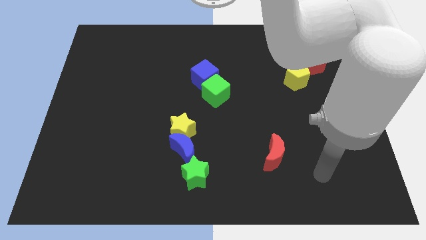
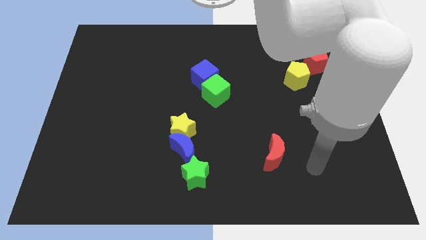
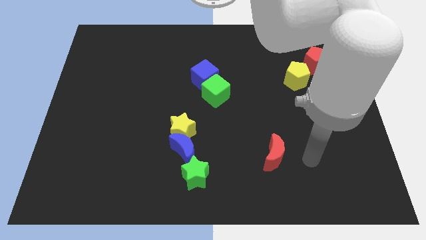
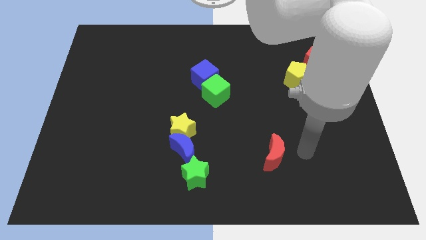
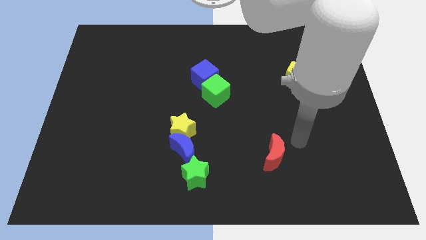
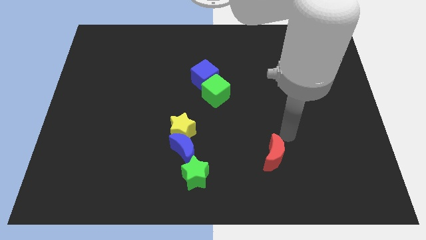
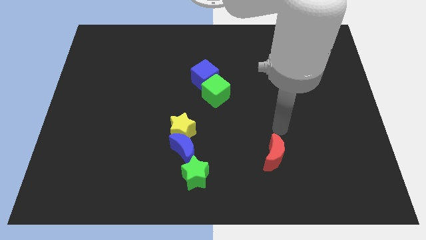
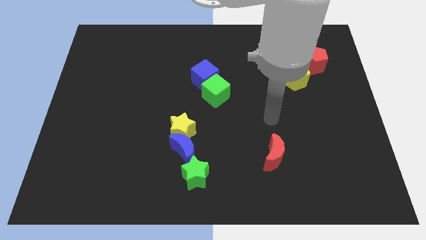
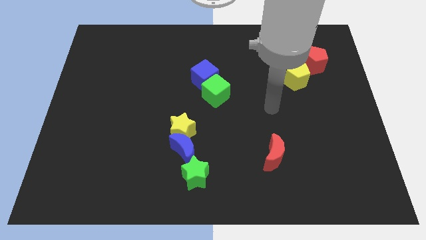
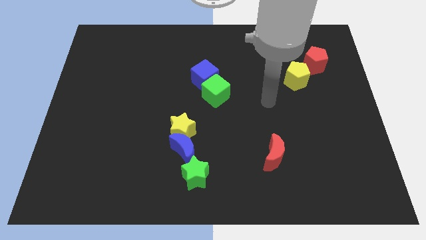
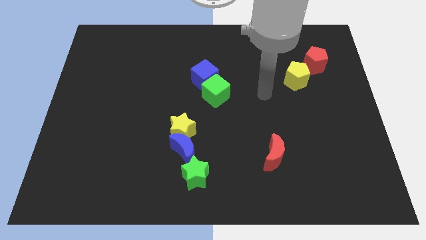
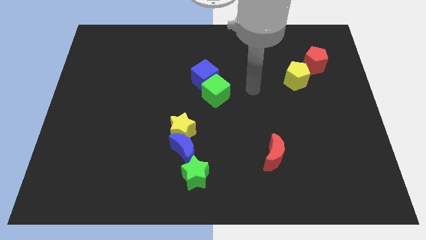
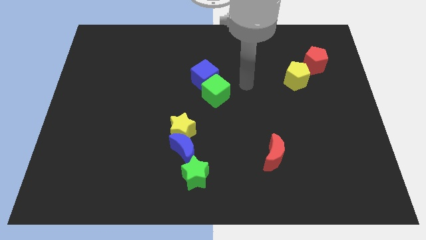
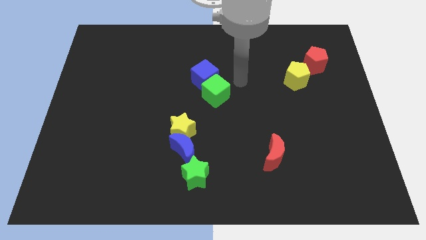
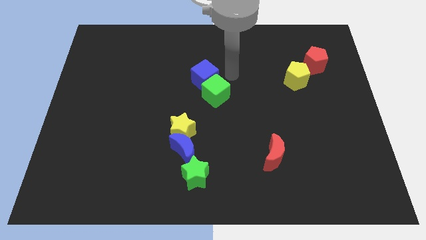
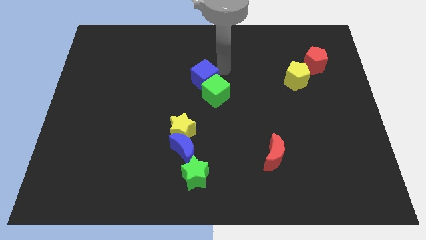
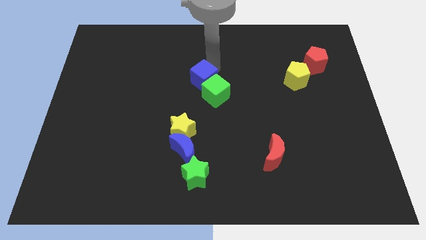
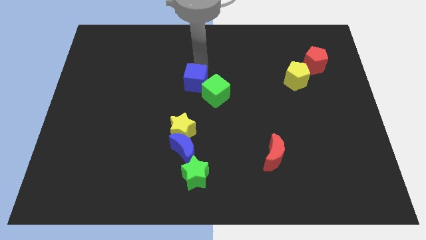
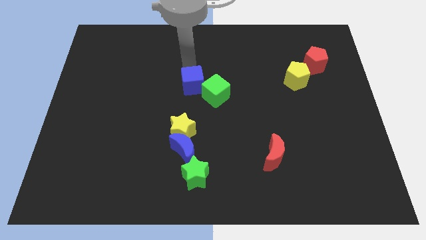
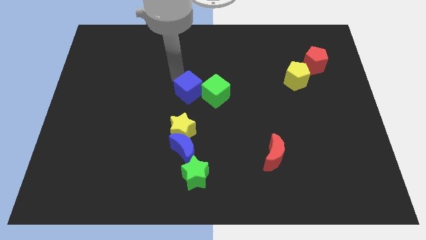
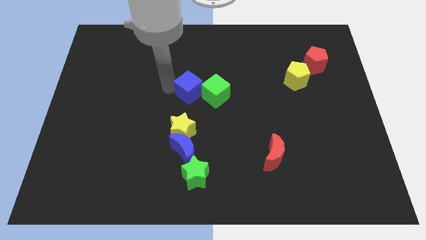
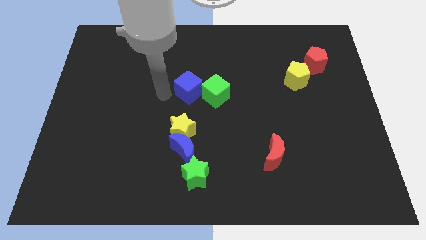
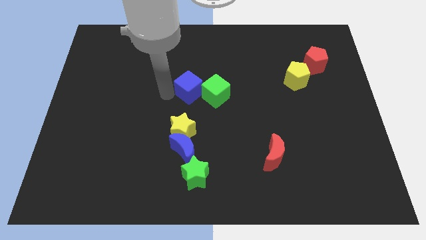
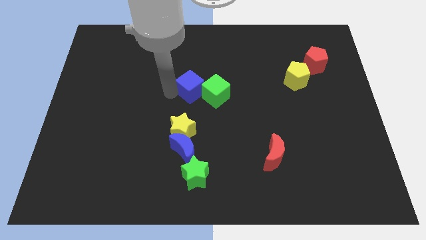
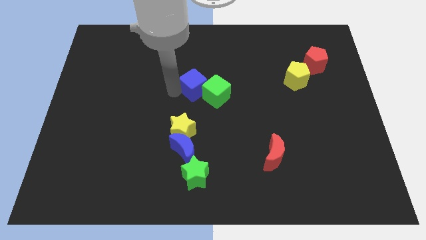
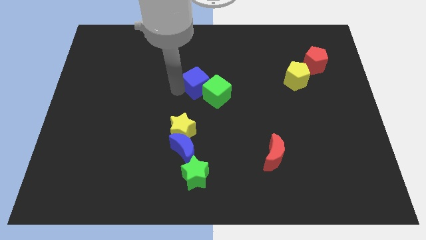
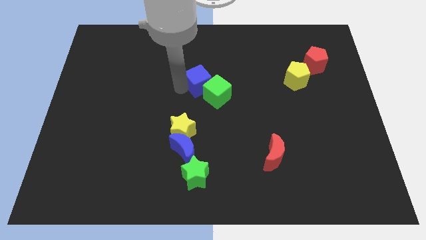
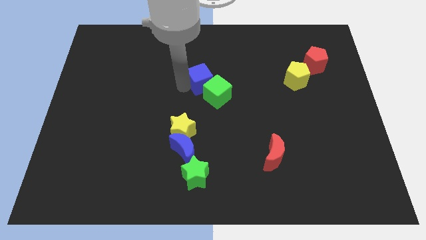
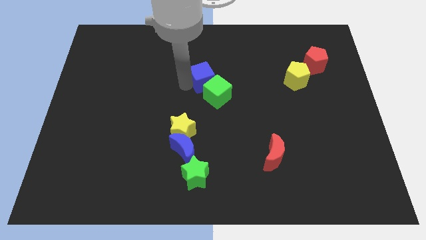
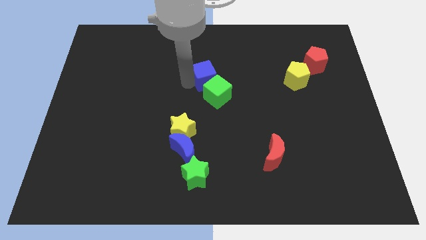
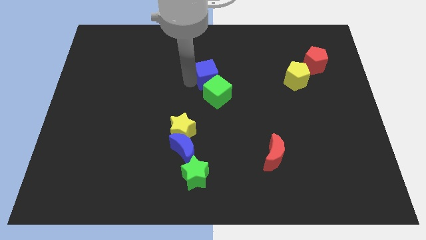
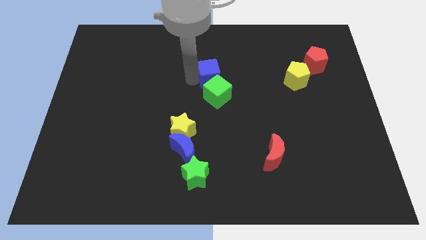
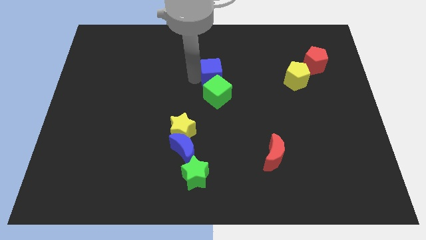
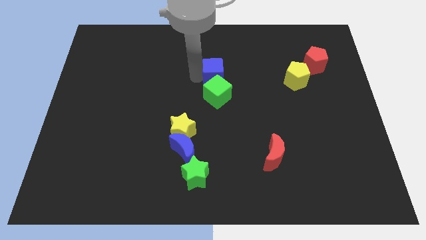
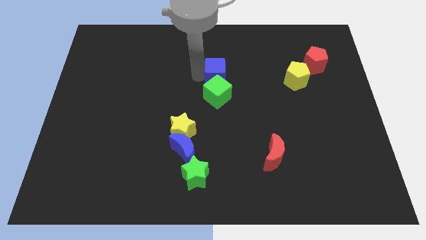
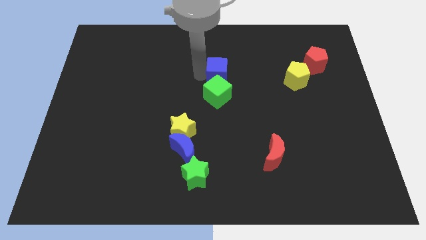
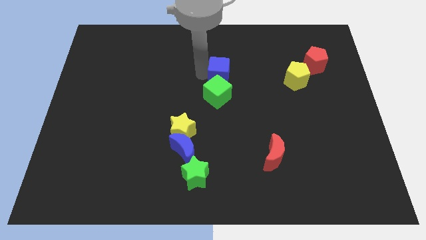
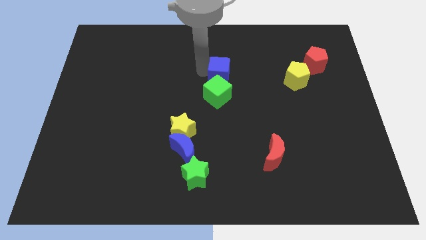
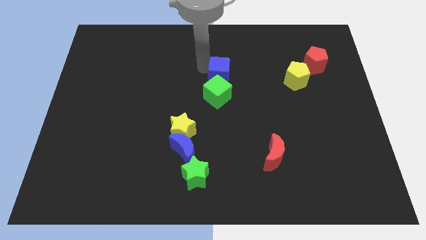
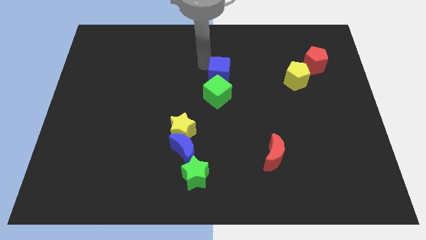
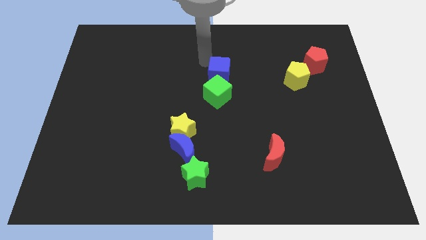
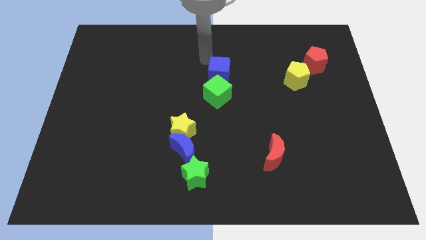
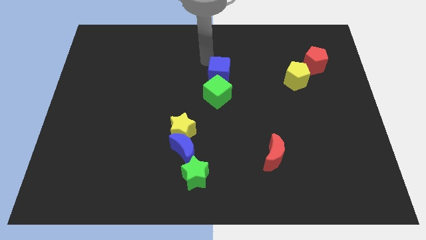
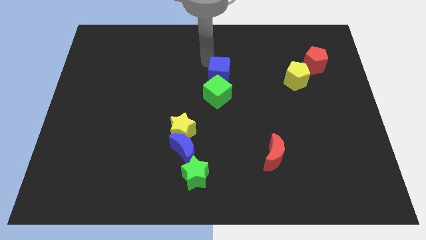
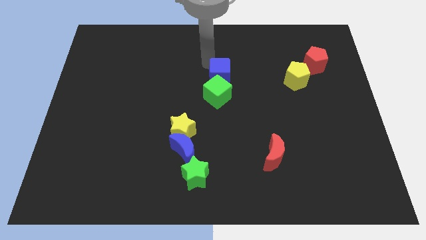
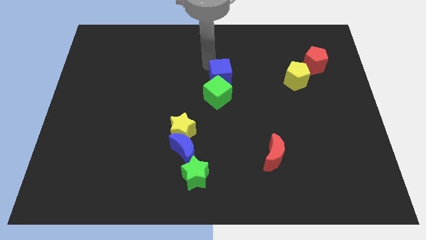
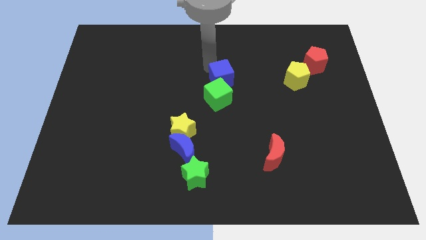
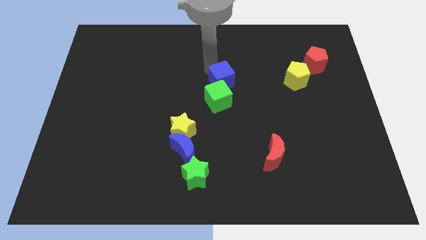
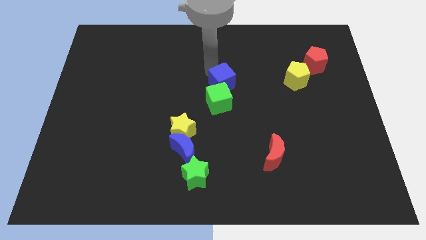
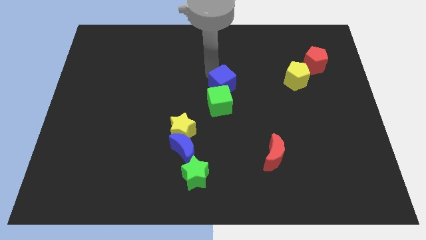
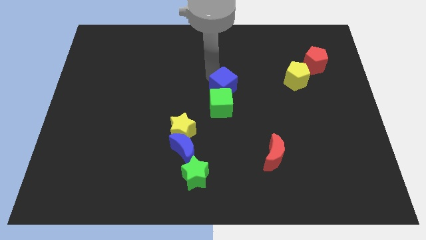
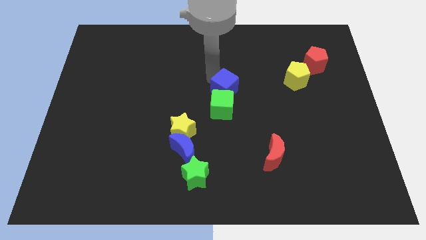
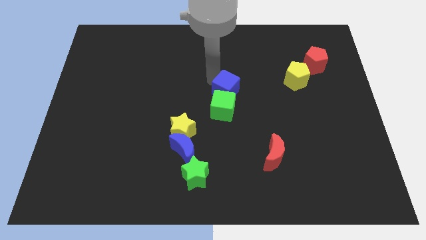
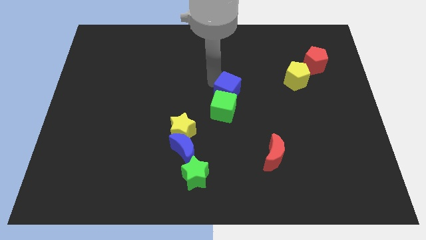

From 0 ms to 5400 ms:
slide the blue cube a bit down and right

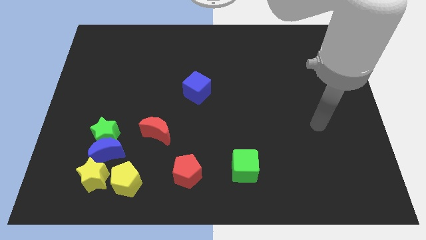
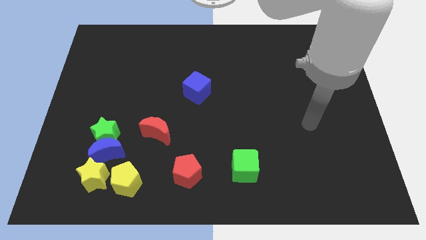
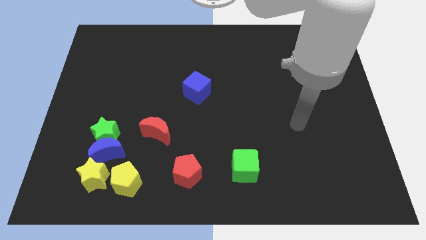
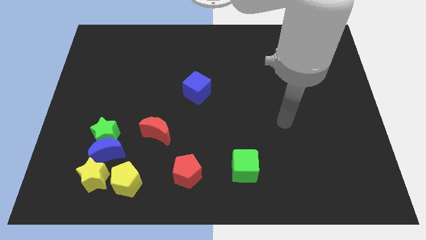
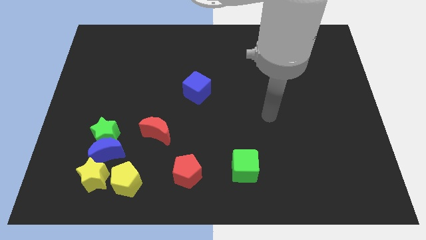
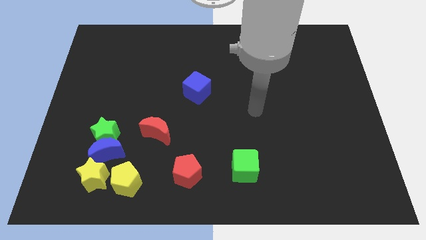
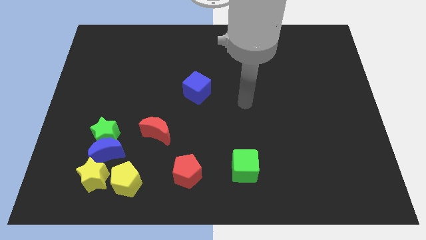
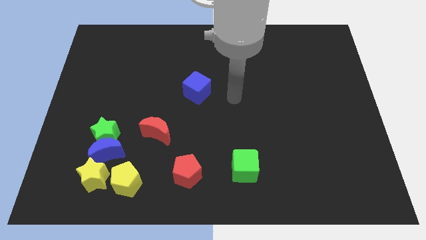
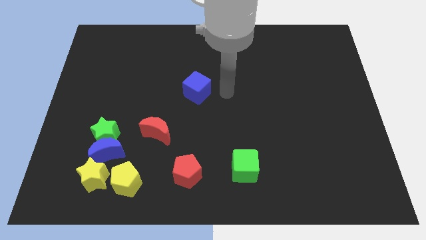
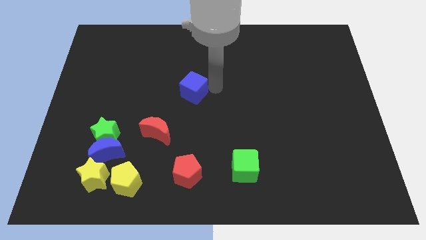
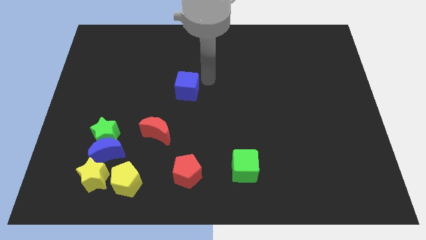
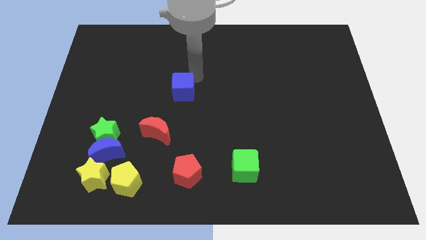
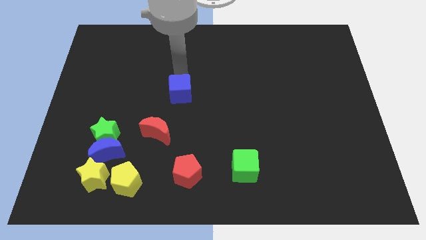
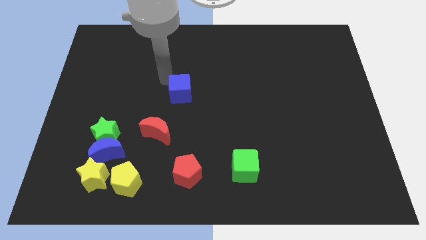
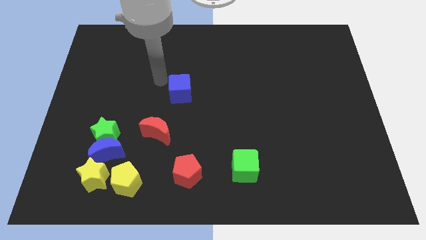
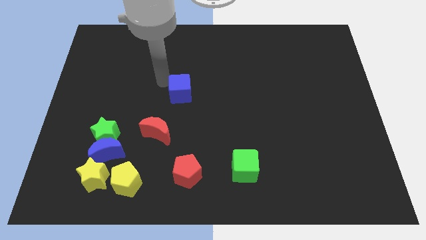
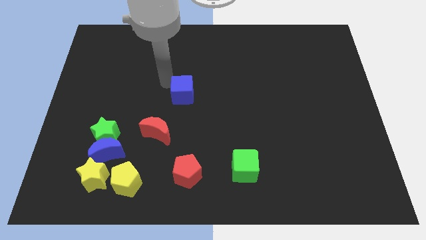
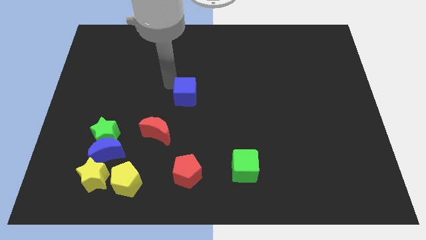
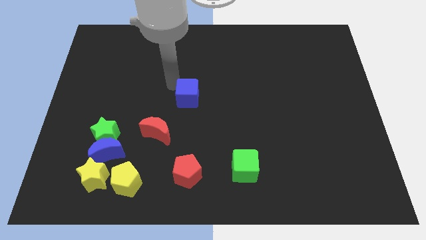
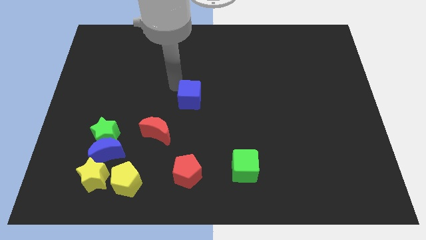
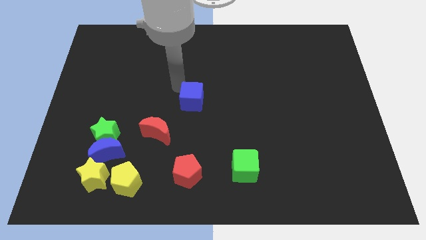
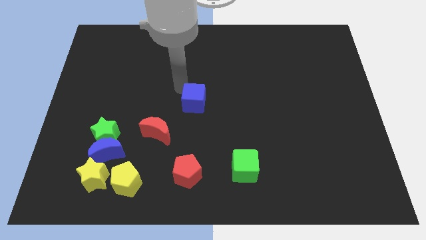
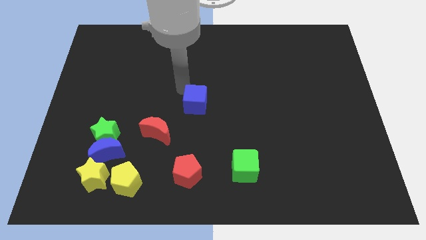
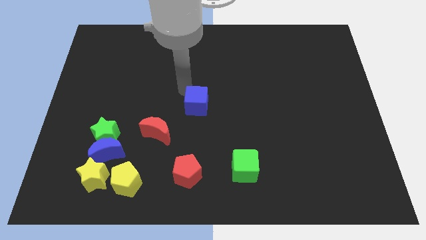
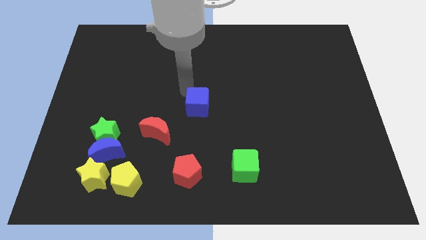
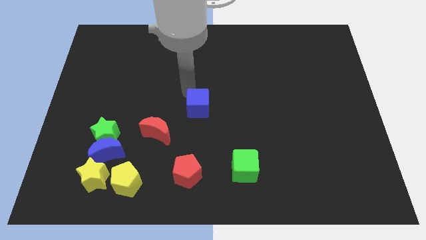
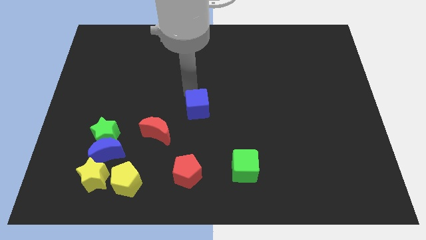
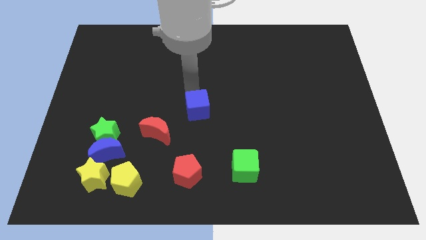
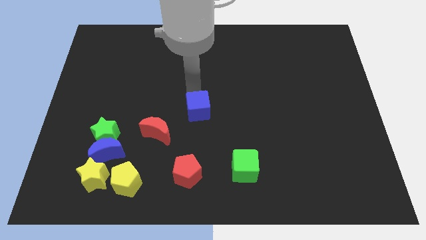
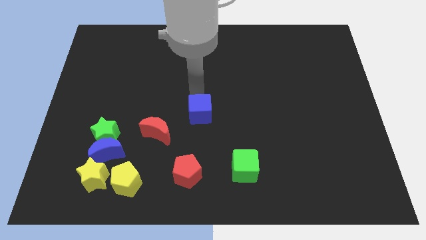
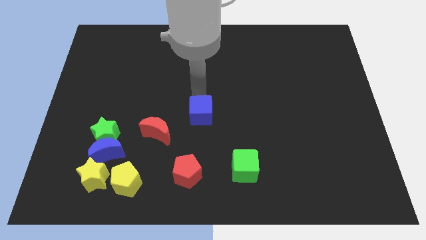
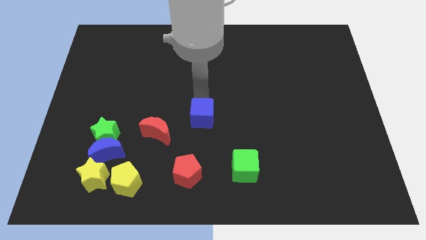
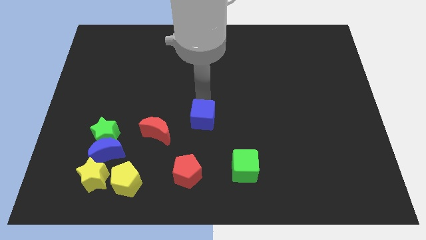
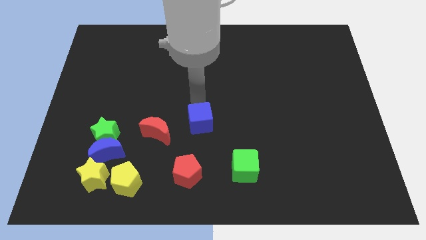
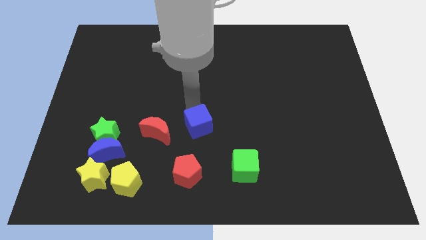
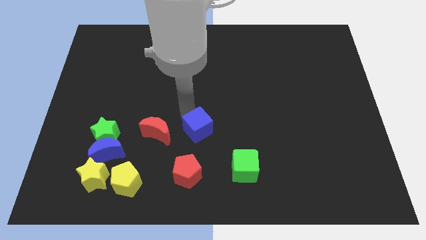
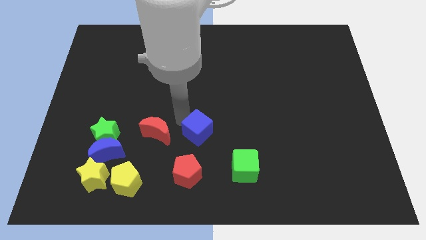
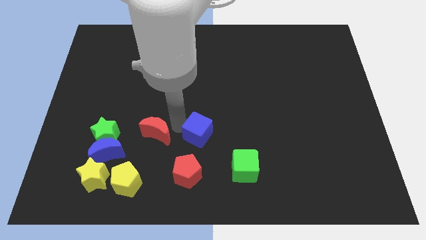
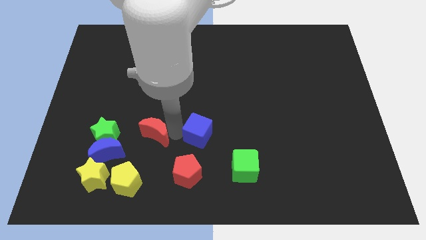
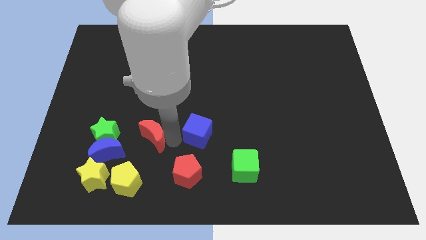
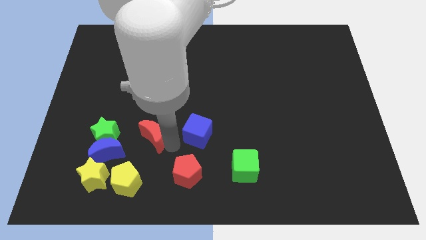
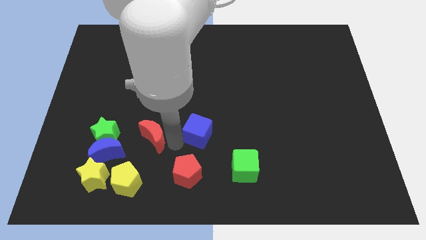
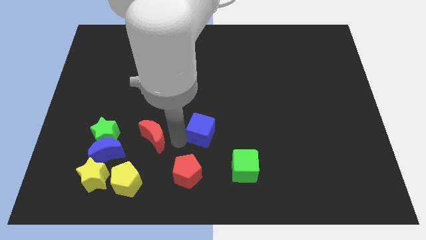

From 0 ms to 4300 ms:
slide the blue cube a bit downwards and then right
